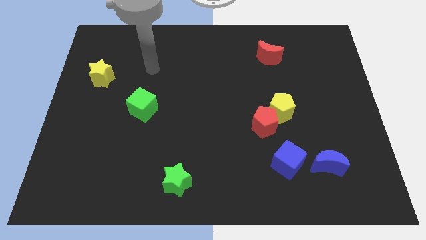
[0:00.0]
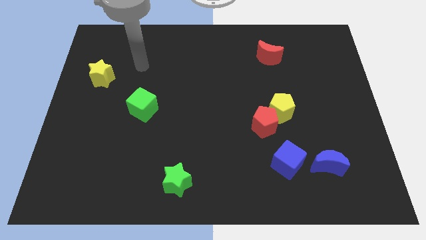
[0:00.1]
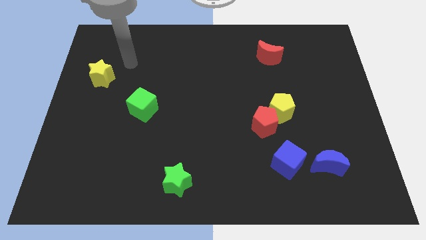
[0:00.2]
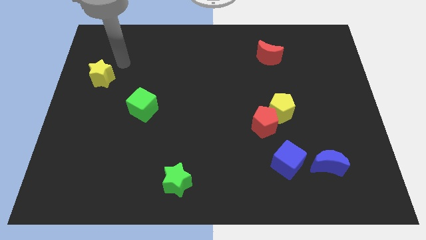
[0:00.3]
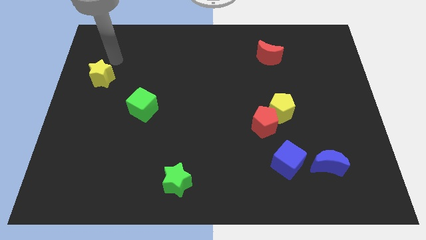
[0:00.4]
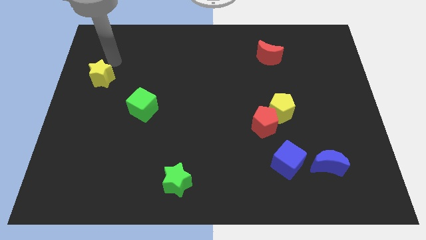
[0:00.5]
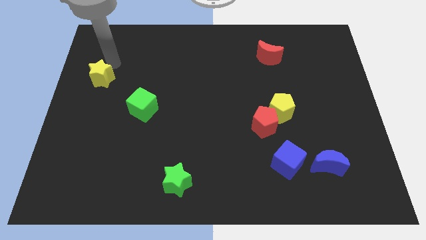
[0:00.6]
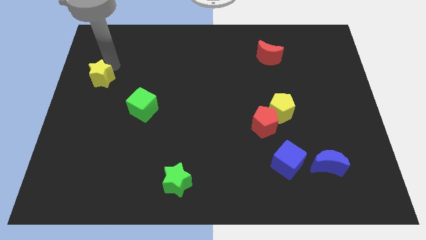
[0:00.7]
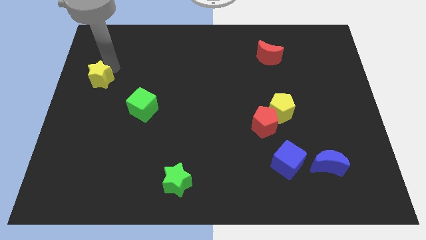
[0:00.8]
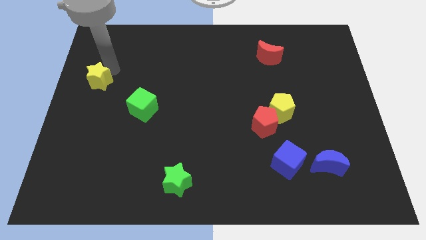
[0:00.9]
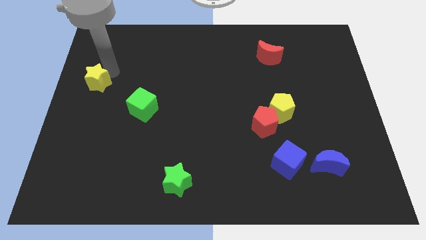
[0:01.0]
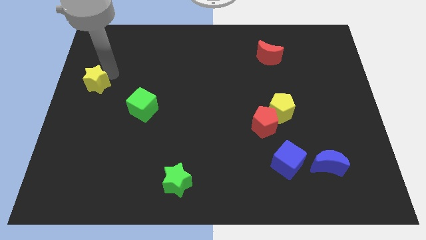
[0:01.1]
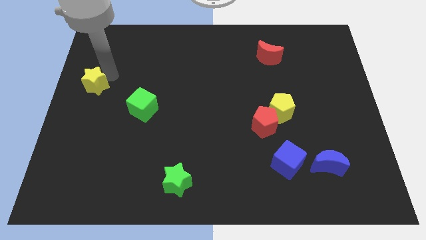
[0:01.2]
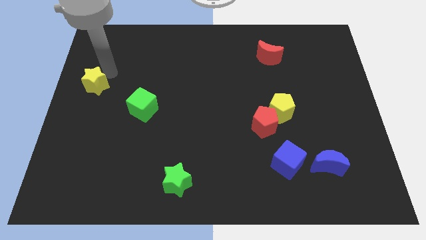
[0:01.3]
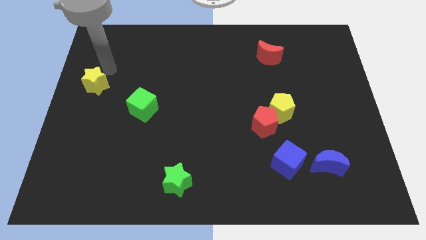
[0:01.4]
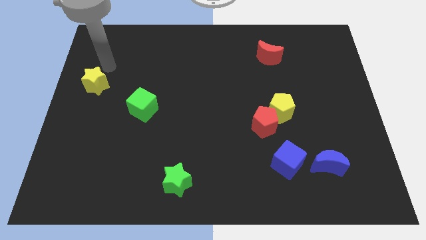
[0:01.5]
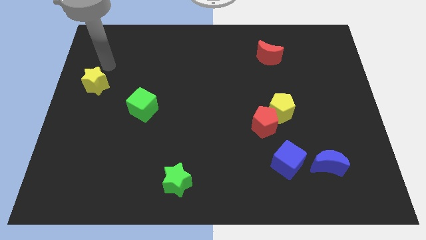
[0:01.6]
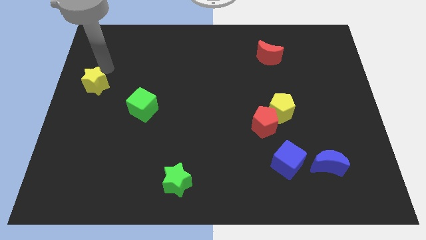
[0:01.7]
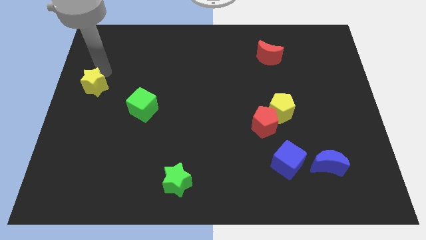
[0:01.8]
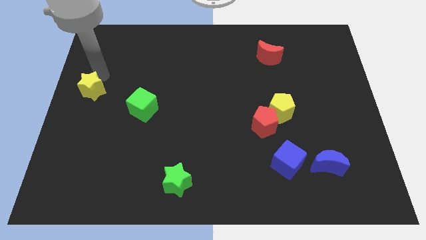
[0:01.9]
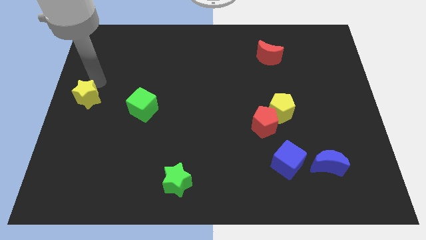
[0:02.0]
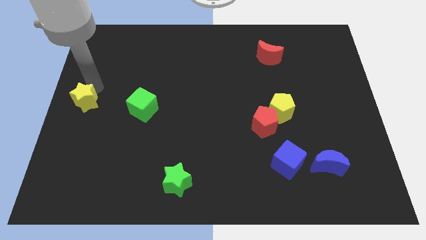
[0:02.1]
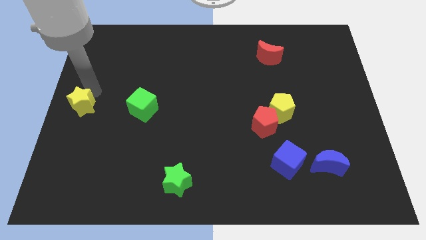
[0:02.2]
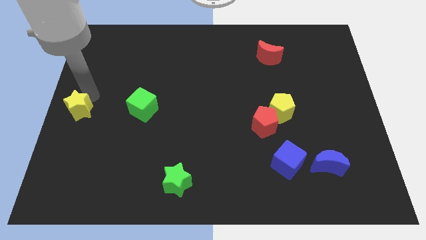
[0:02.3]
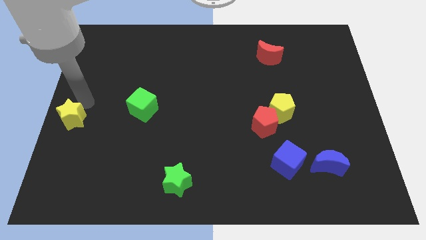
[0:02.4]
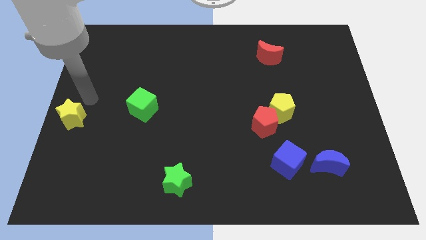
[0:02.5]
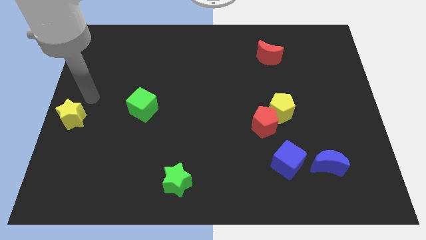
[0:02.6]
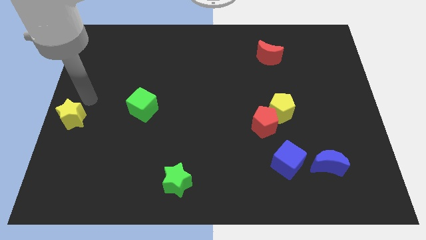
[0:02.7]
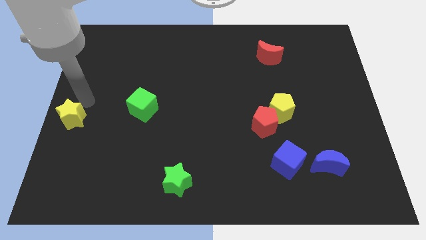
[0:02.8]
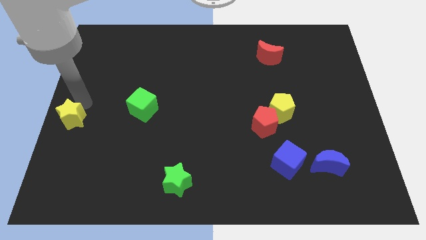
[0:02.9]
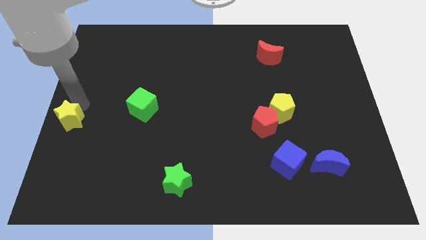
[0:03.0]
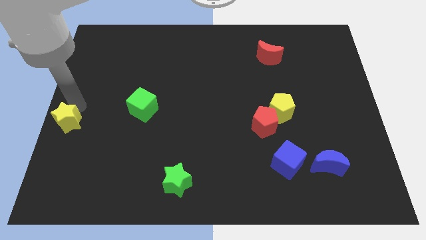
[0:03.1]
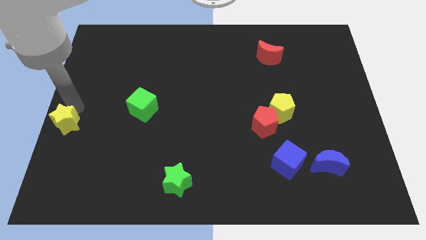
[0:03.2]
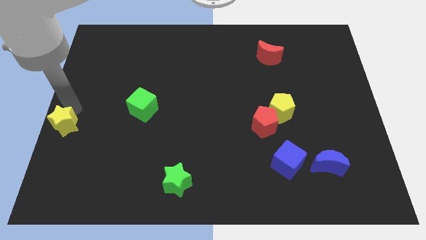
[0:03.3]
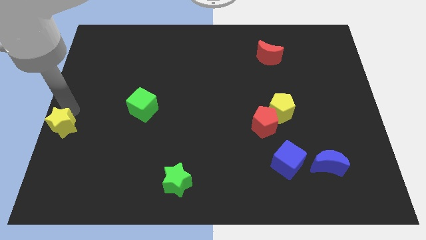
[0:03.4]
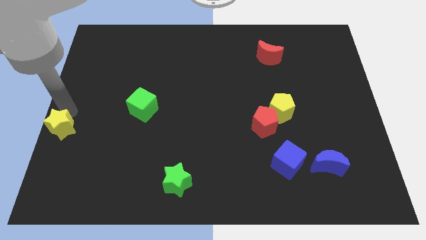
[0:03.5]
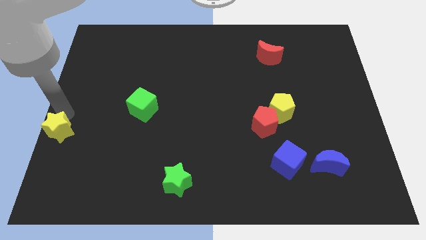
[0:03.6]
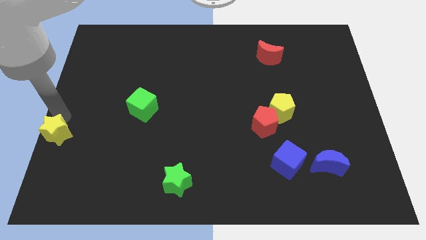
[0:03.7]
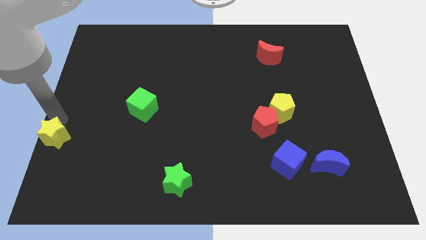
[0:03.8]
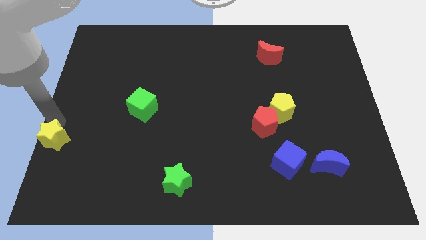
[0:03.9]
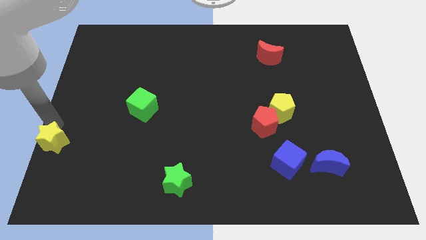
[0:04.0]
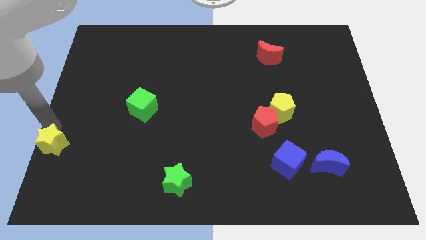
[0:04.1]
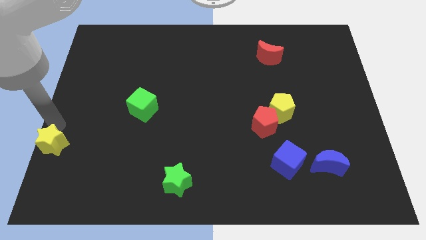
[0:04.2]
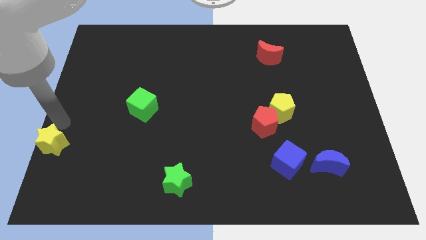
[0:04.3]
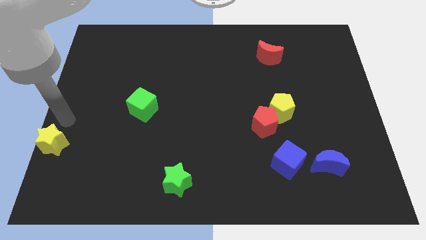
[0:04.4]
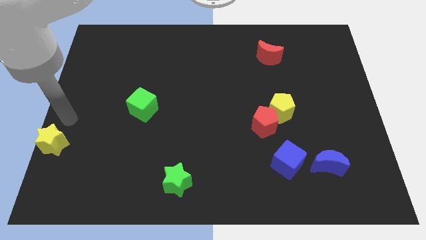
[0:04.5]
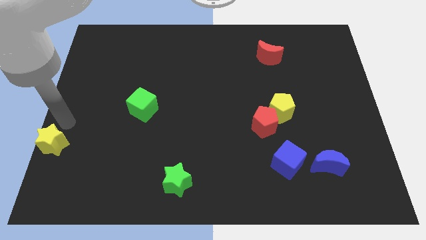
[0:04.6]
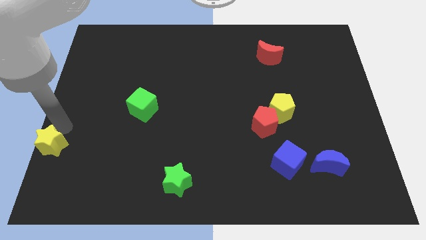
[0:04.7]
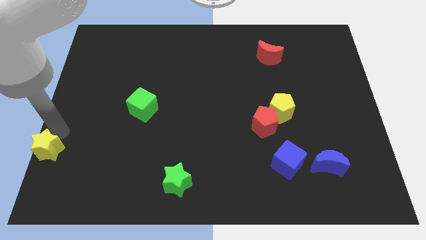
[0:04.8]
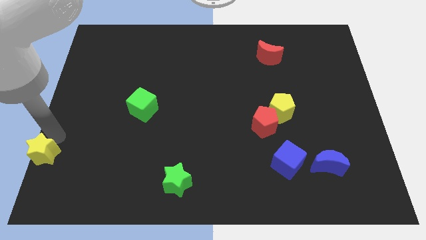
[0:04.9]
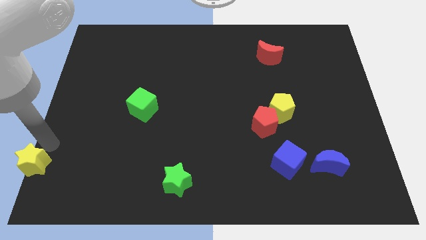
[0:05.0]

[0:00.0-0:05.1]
slide the yellow star to the lower left corner
